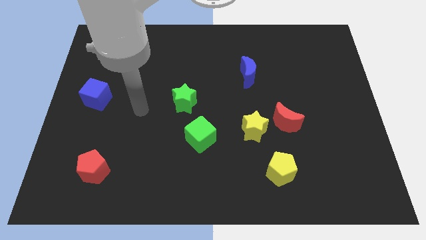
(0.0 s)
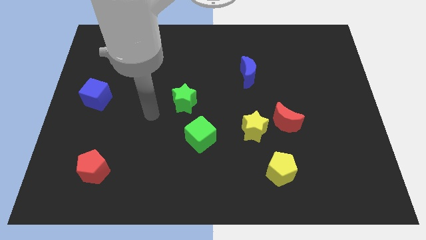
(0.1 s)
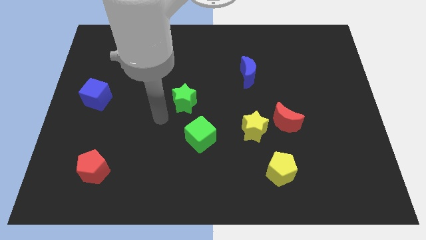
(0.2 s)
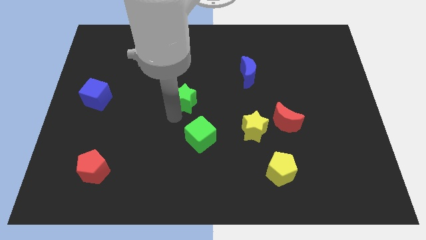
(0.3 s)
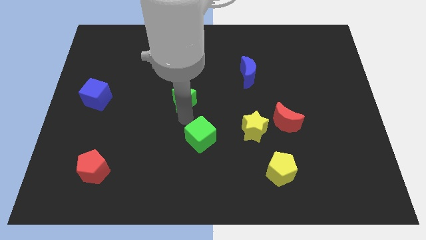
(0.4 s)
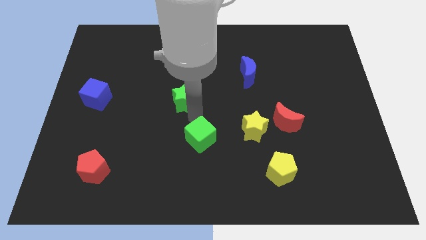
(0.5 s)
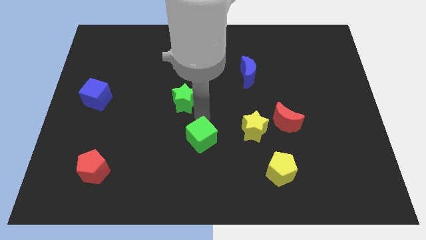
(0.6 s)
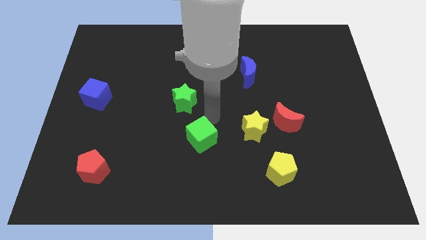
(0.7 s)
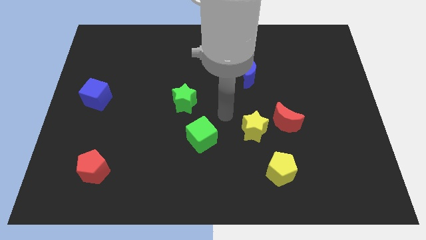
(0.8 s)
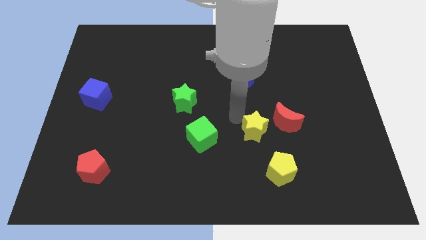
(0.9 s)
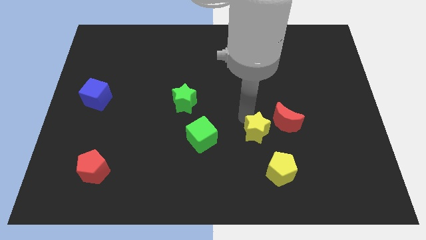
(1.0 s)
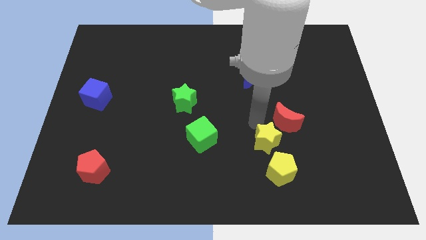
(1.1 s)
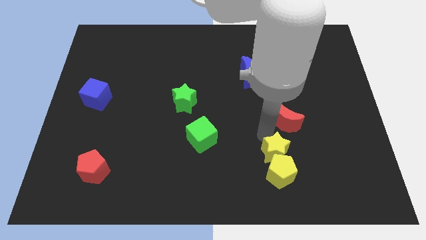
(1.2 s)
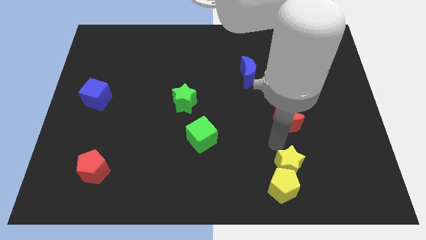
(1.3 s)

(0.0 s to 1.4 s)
move the red moon away from the yellow star

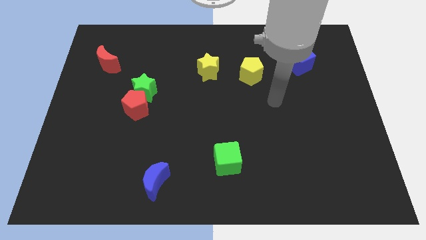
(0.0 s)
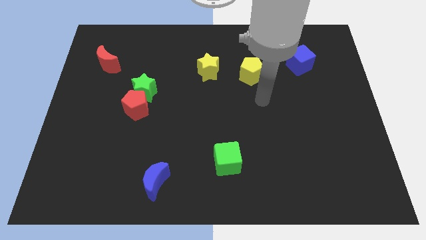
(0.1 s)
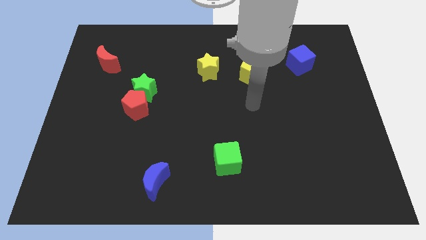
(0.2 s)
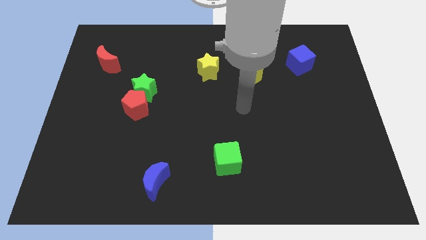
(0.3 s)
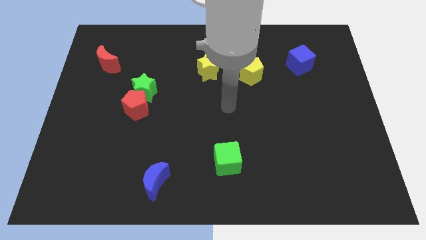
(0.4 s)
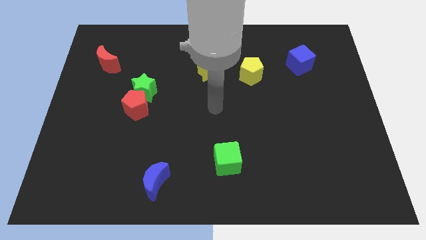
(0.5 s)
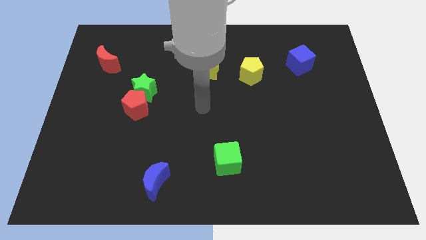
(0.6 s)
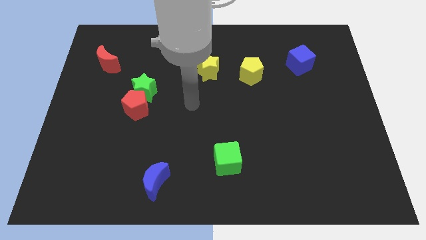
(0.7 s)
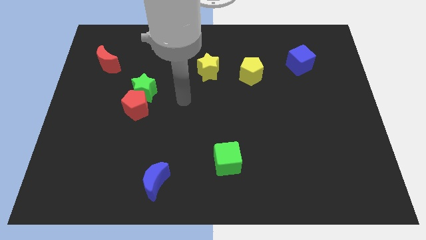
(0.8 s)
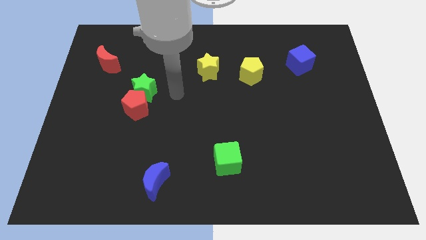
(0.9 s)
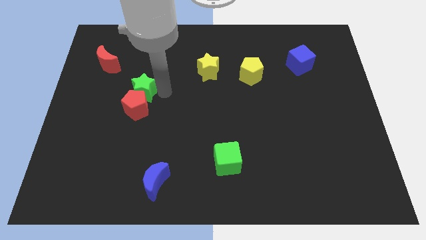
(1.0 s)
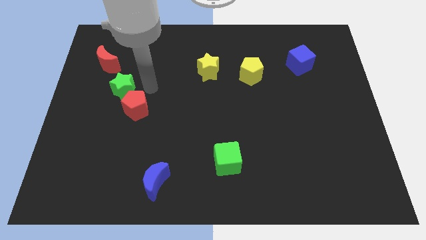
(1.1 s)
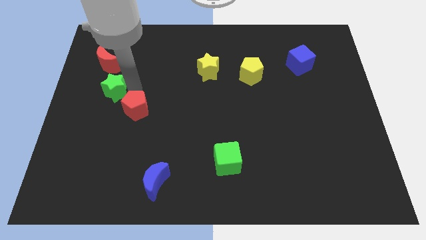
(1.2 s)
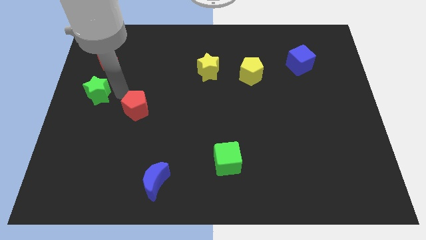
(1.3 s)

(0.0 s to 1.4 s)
separate the red pentagon from the green star

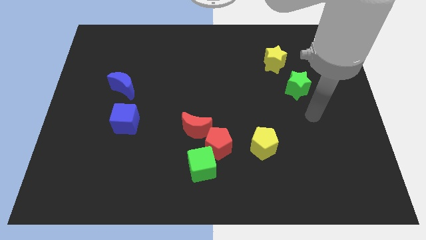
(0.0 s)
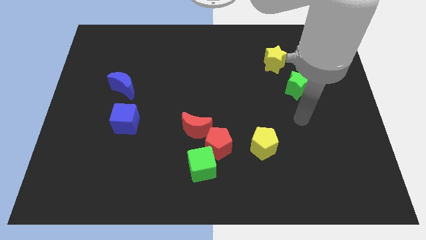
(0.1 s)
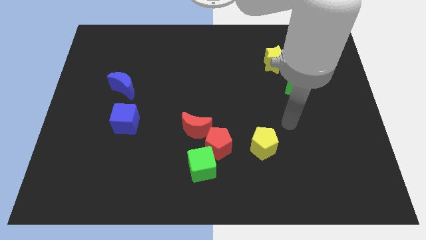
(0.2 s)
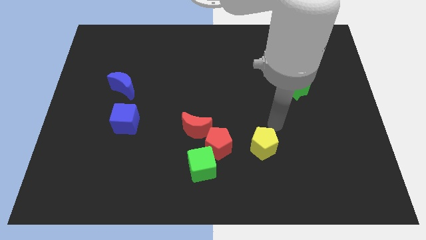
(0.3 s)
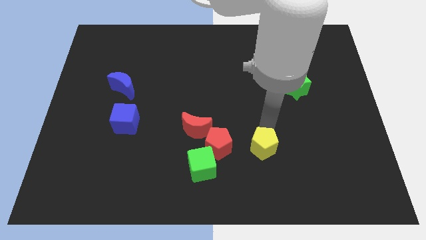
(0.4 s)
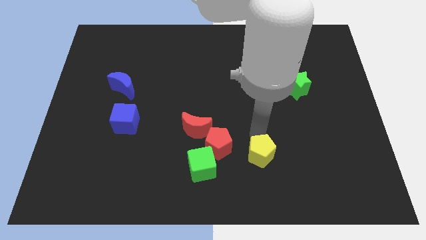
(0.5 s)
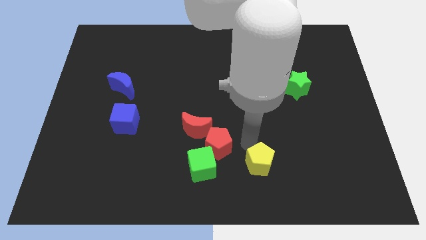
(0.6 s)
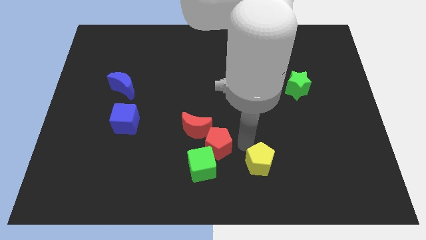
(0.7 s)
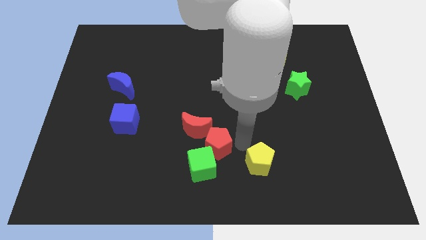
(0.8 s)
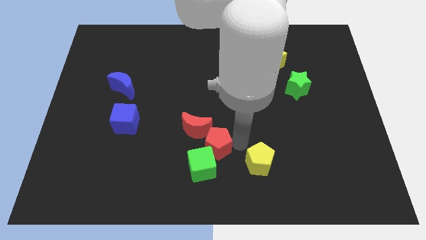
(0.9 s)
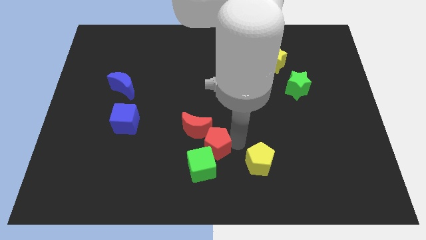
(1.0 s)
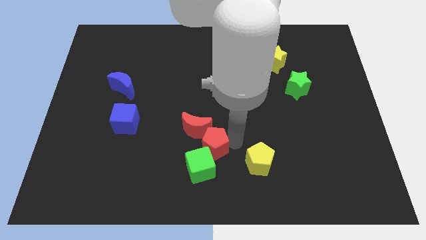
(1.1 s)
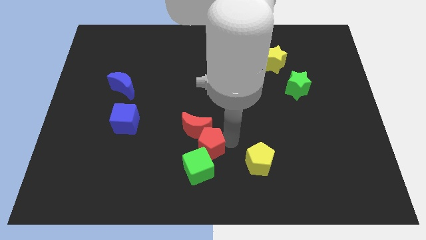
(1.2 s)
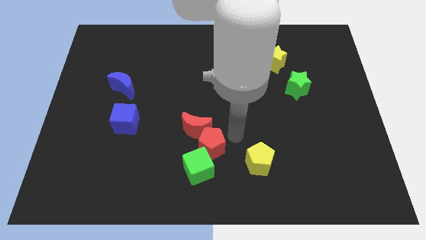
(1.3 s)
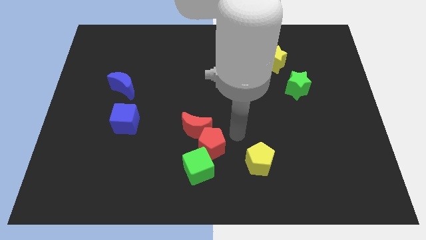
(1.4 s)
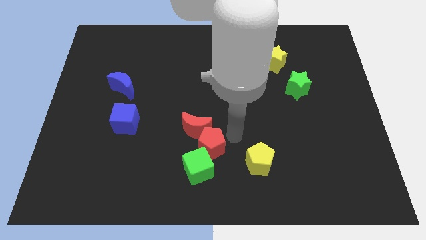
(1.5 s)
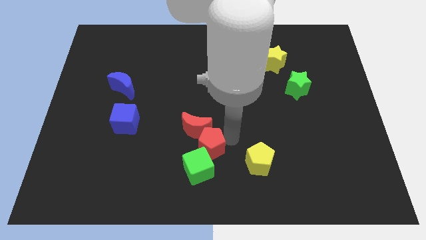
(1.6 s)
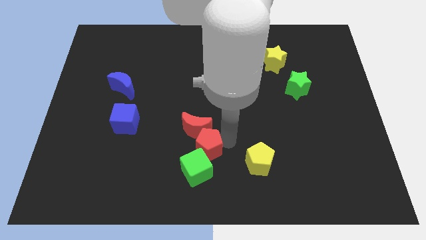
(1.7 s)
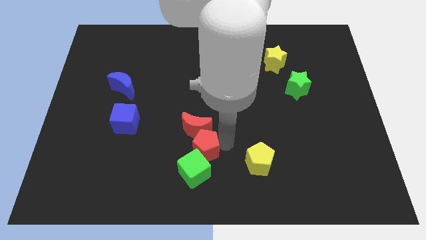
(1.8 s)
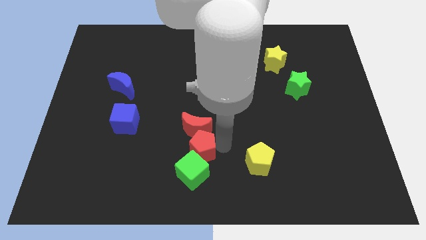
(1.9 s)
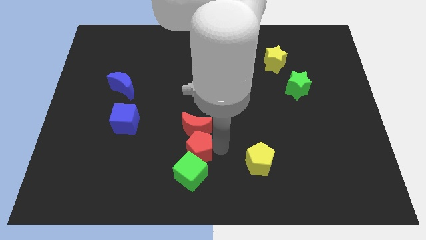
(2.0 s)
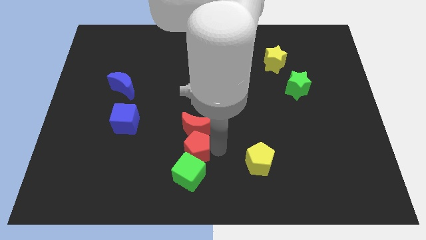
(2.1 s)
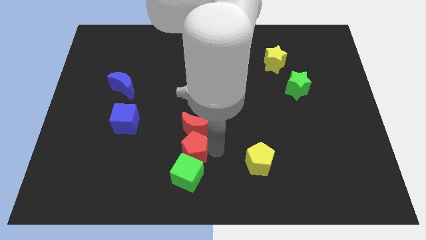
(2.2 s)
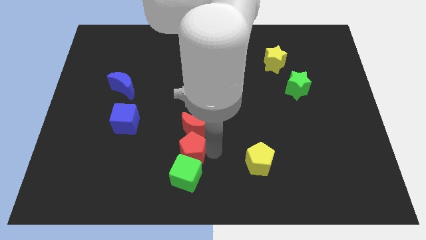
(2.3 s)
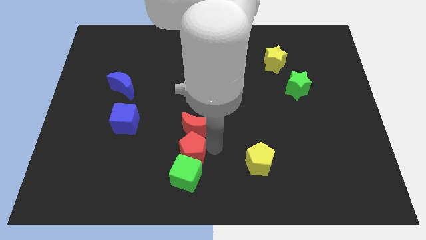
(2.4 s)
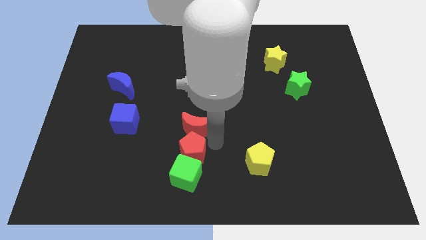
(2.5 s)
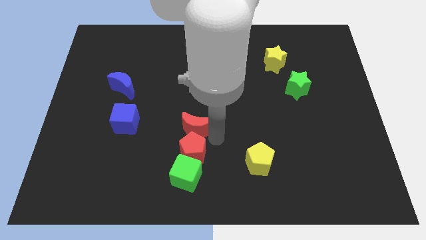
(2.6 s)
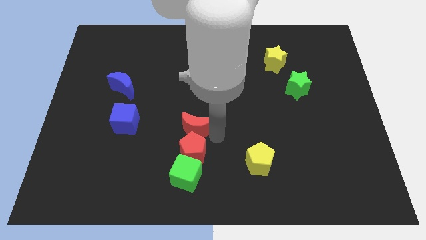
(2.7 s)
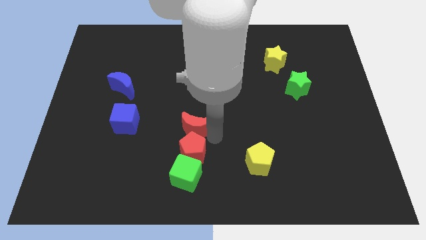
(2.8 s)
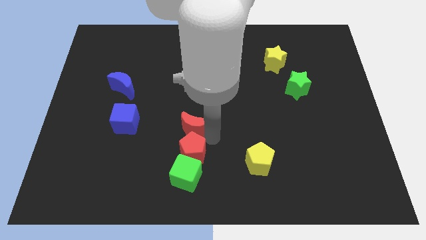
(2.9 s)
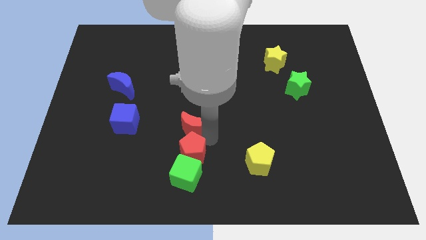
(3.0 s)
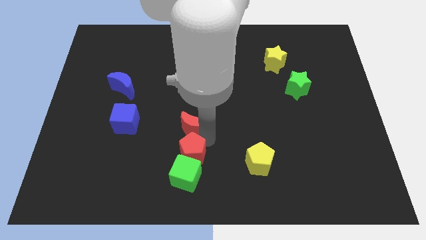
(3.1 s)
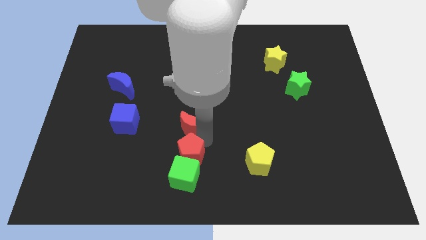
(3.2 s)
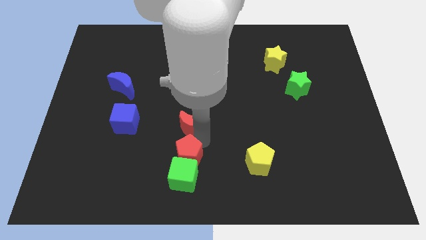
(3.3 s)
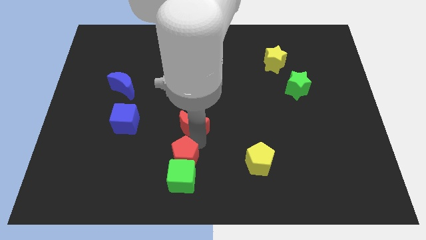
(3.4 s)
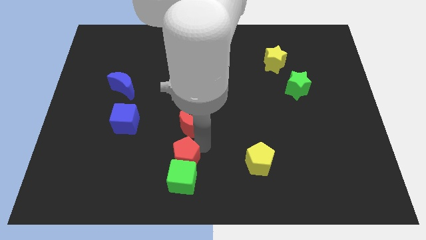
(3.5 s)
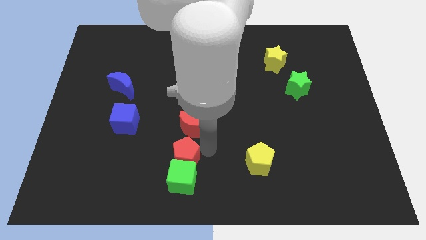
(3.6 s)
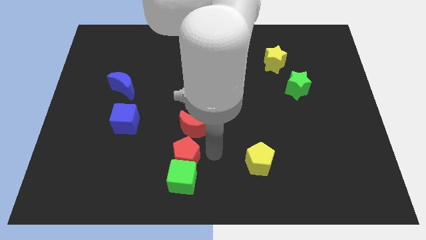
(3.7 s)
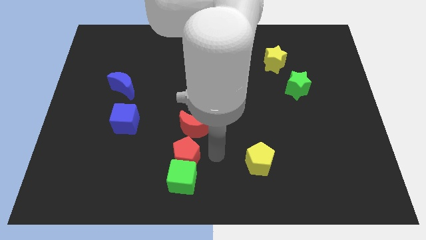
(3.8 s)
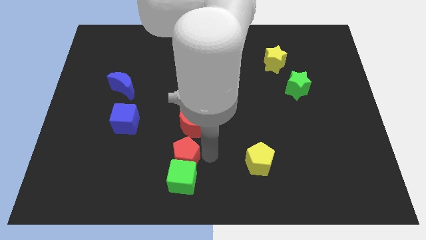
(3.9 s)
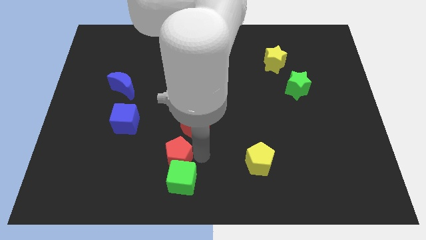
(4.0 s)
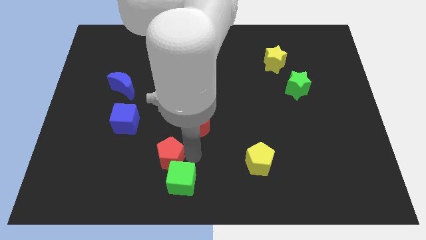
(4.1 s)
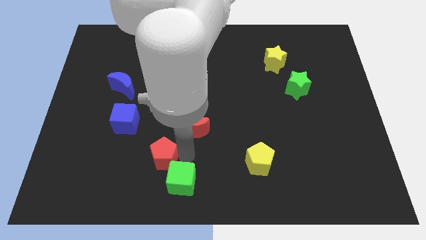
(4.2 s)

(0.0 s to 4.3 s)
move the red pentagon away from the green cube, red moon, and yellow pentagon

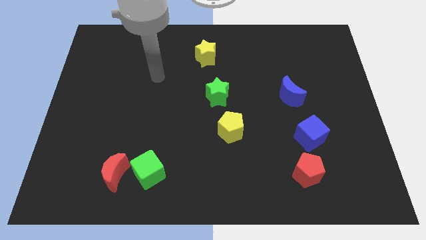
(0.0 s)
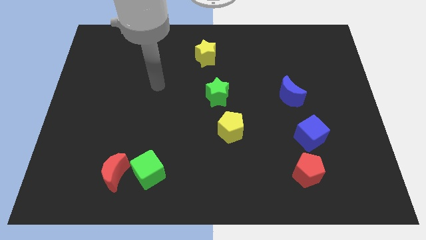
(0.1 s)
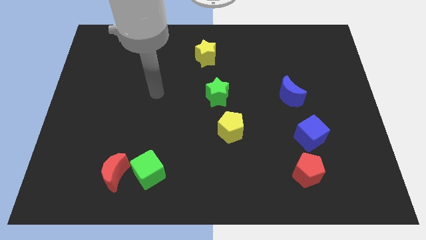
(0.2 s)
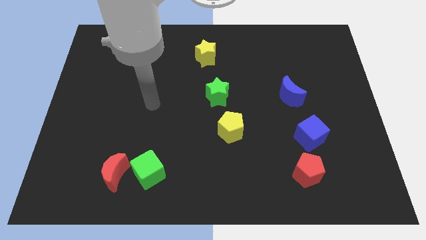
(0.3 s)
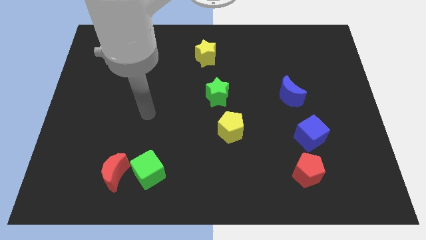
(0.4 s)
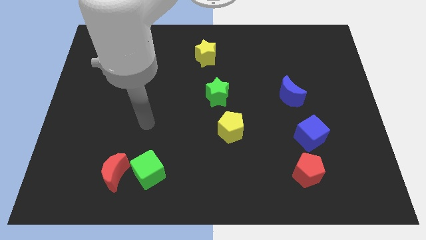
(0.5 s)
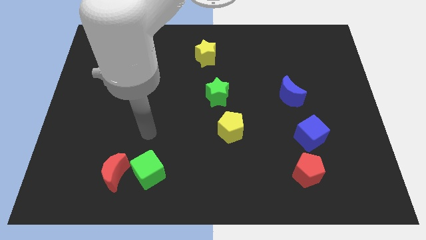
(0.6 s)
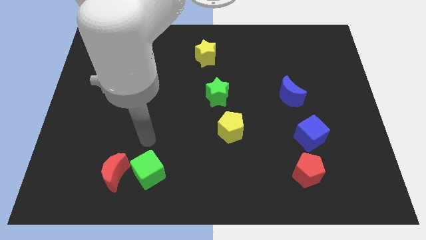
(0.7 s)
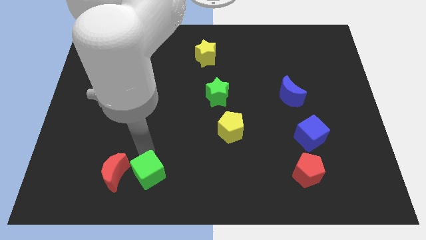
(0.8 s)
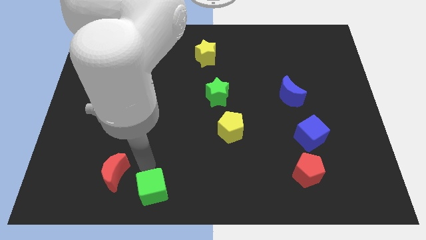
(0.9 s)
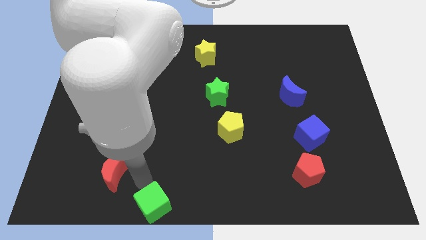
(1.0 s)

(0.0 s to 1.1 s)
pull the red moon apart from the green cube

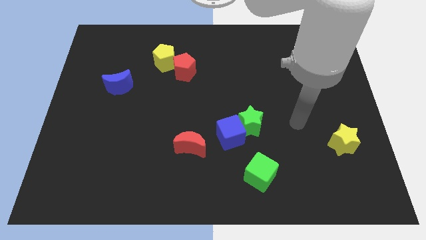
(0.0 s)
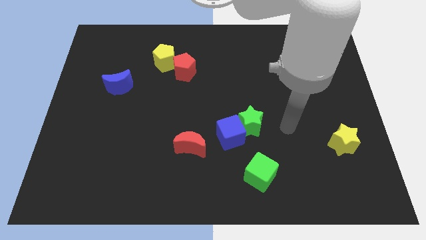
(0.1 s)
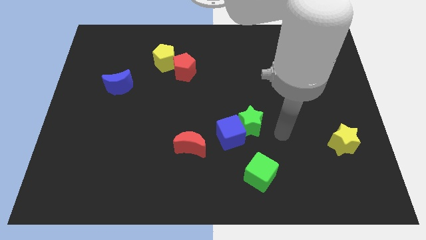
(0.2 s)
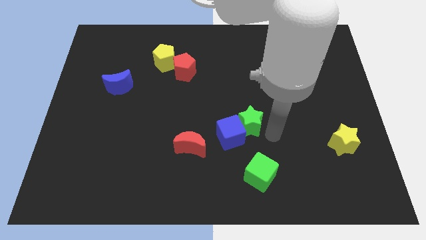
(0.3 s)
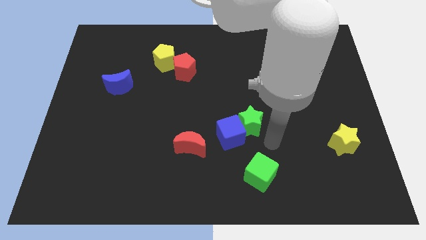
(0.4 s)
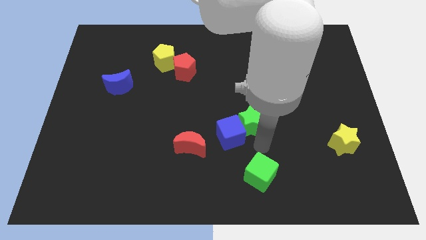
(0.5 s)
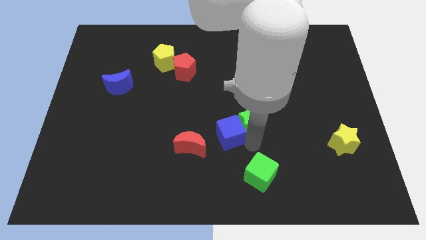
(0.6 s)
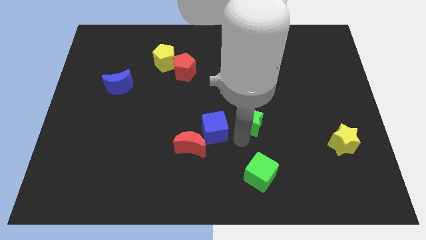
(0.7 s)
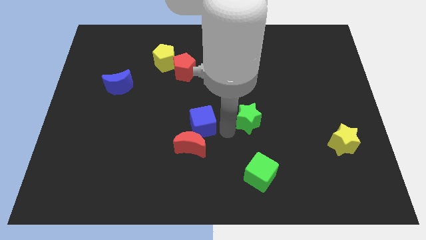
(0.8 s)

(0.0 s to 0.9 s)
pull the green star apart from the blue cube

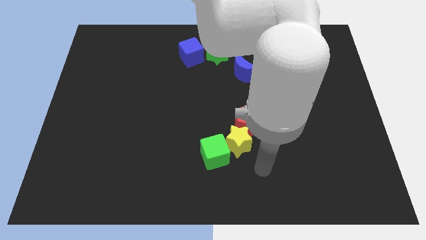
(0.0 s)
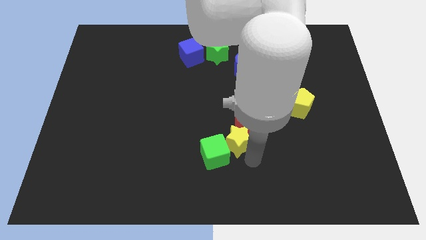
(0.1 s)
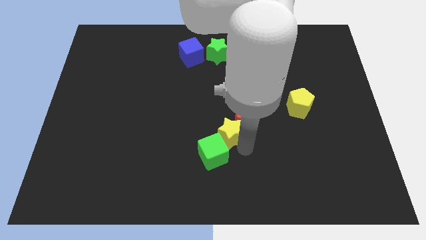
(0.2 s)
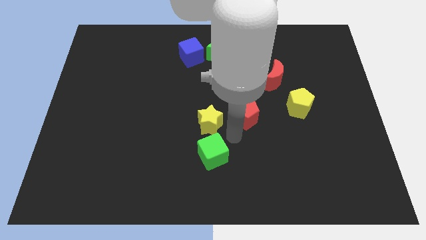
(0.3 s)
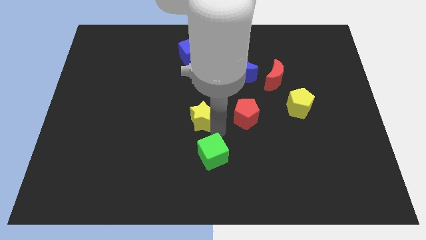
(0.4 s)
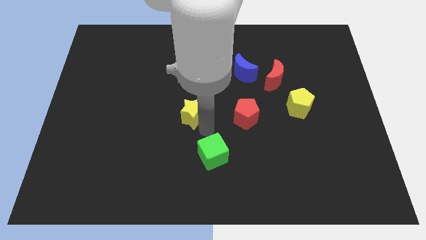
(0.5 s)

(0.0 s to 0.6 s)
move the green cube away from the yellow star
